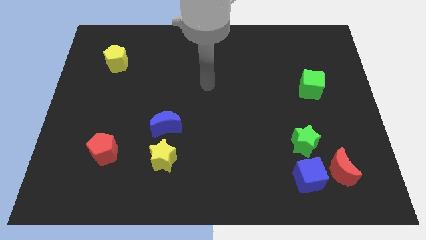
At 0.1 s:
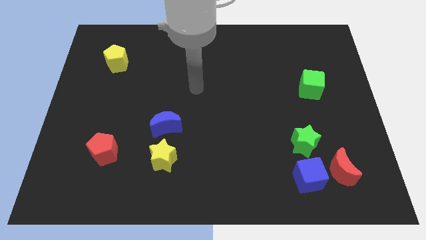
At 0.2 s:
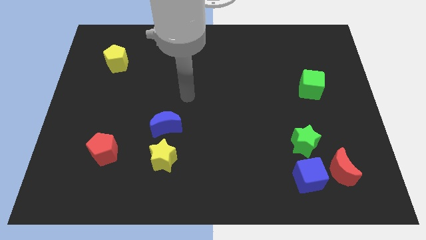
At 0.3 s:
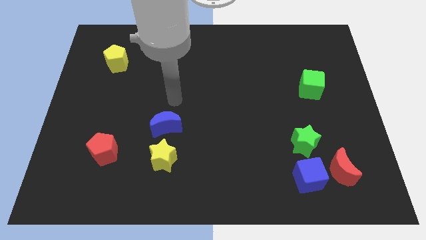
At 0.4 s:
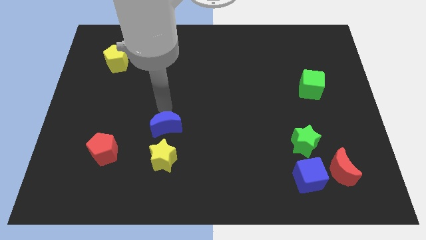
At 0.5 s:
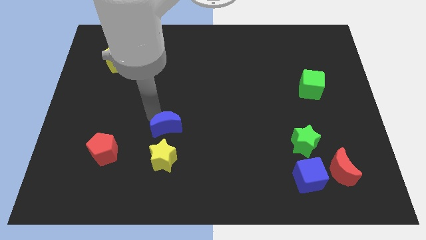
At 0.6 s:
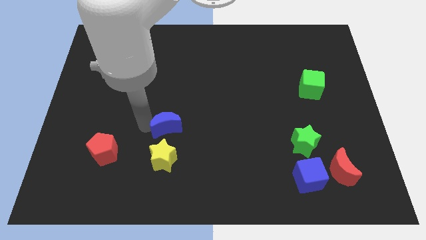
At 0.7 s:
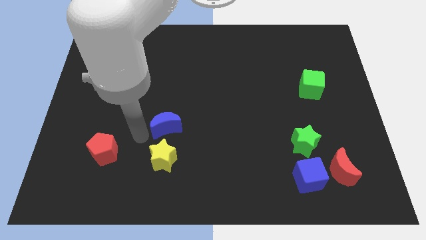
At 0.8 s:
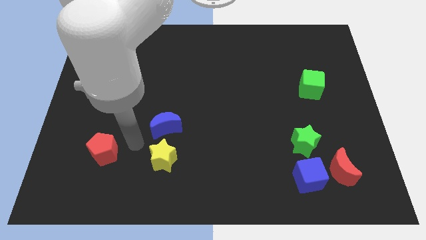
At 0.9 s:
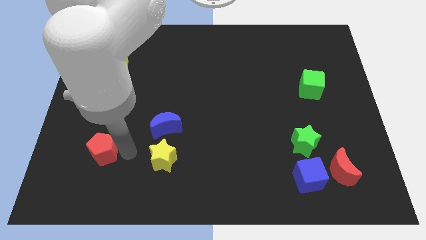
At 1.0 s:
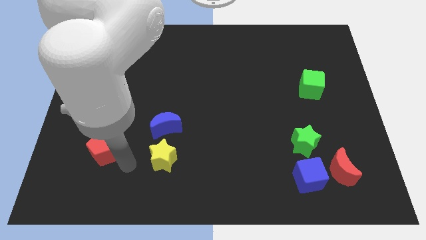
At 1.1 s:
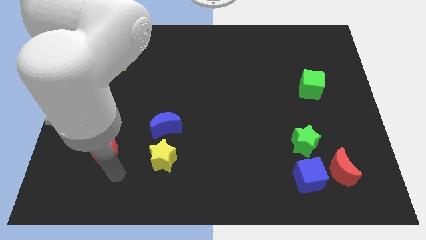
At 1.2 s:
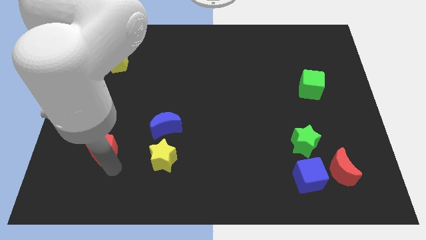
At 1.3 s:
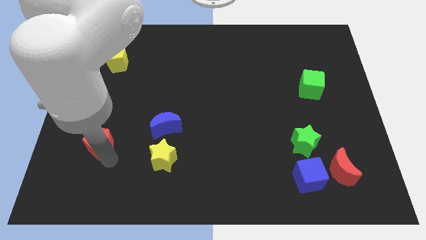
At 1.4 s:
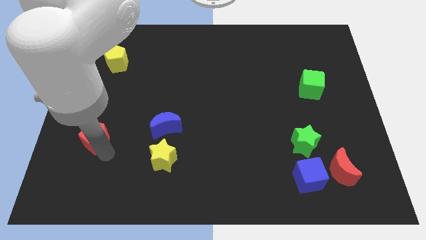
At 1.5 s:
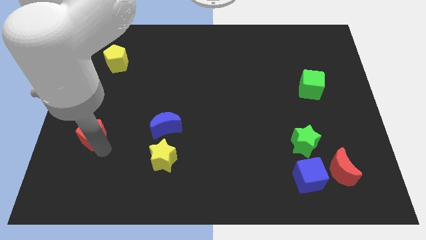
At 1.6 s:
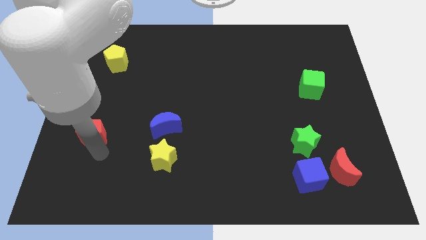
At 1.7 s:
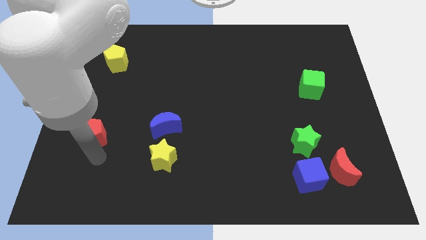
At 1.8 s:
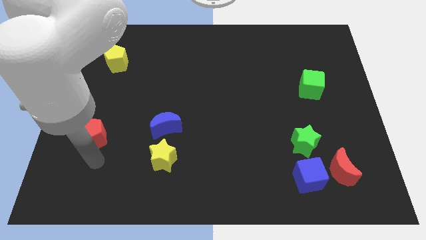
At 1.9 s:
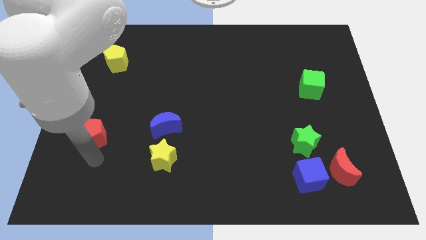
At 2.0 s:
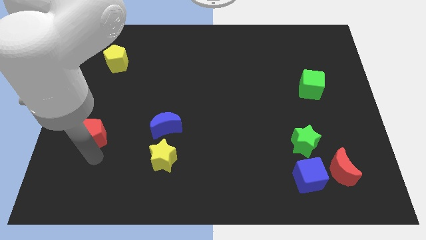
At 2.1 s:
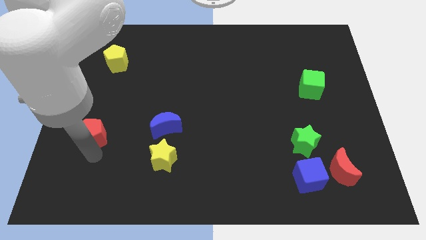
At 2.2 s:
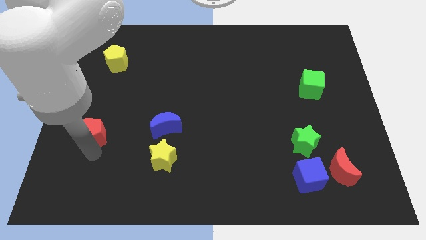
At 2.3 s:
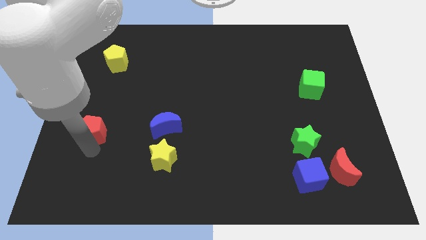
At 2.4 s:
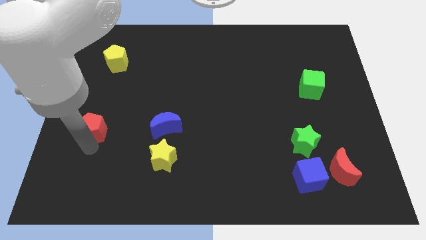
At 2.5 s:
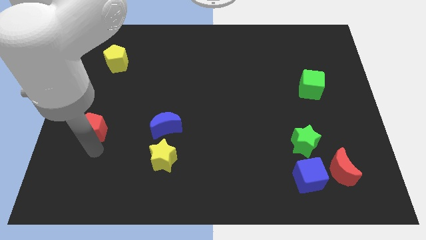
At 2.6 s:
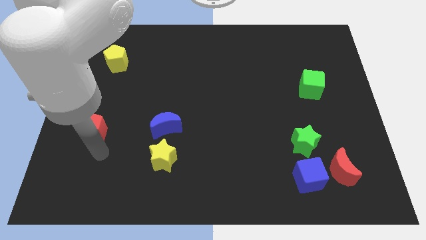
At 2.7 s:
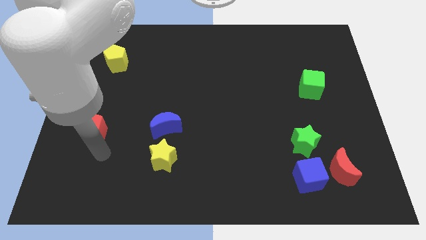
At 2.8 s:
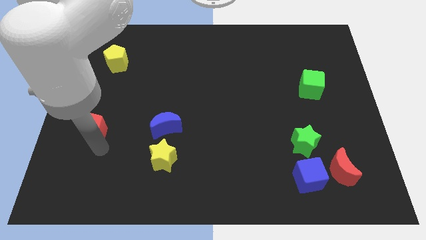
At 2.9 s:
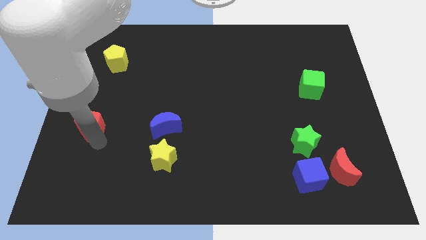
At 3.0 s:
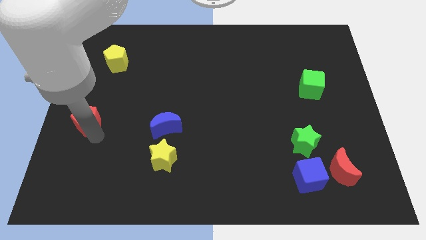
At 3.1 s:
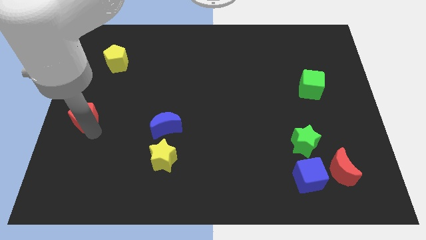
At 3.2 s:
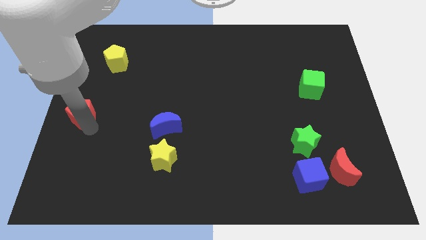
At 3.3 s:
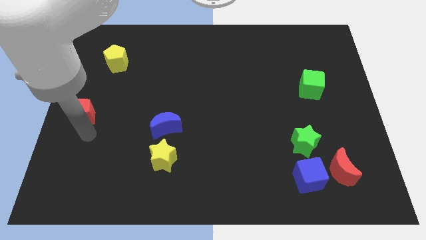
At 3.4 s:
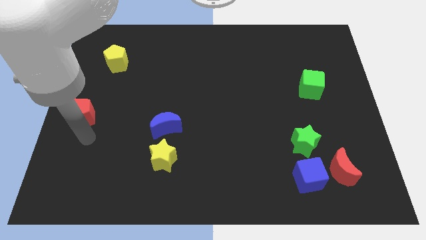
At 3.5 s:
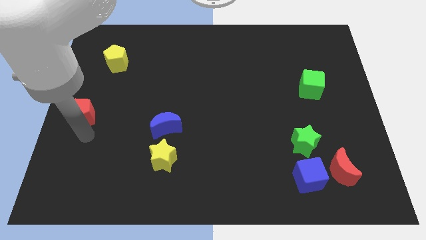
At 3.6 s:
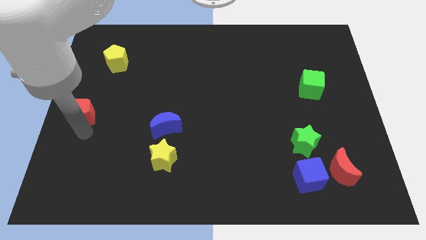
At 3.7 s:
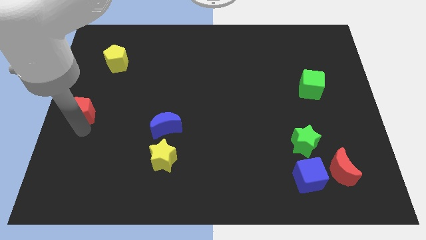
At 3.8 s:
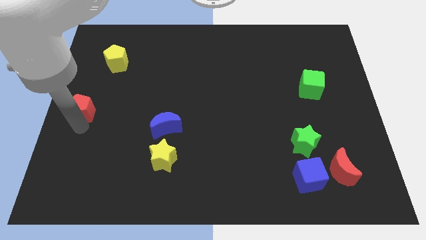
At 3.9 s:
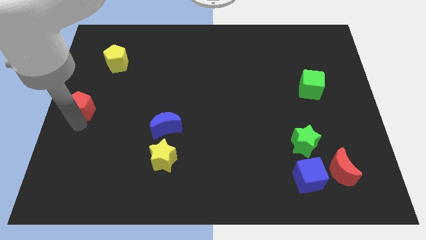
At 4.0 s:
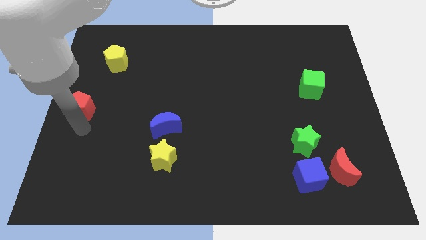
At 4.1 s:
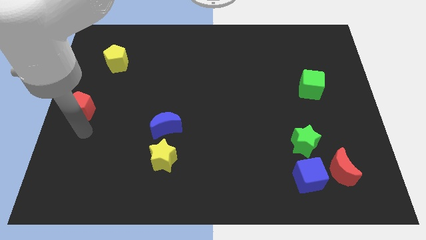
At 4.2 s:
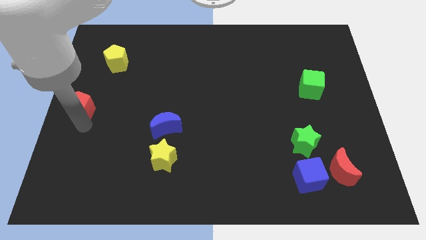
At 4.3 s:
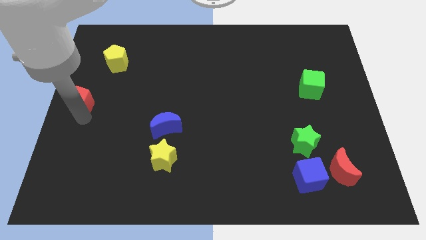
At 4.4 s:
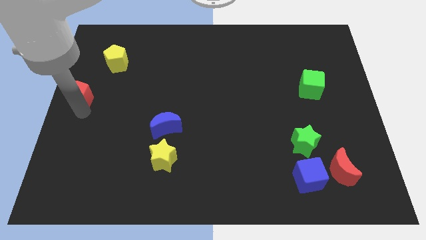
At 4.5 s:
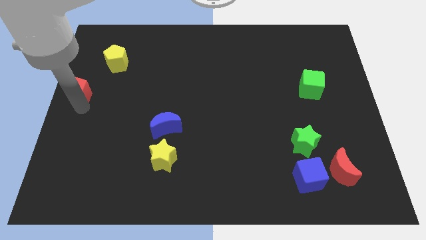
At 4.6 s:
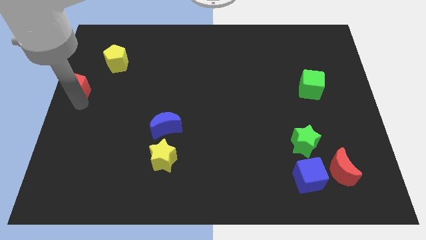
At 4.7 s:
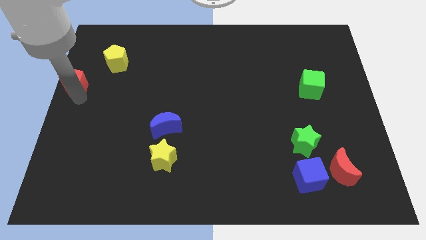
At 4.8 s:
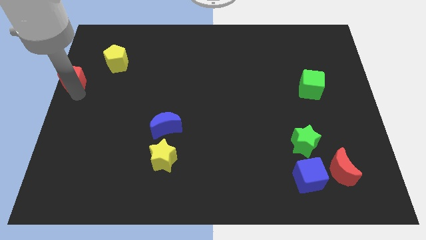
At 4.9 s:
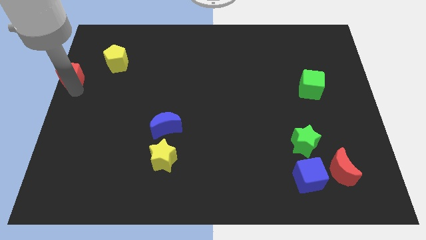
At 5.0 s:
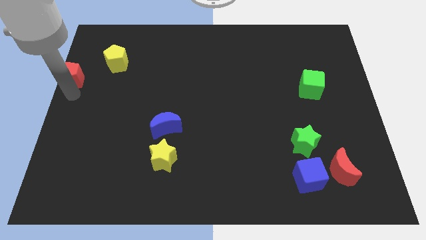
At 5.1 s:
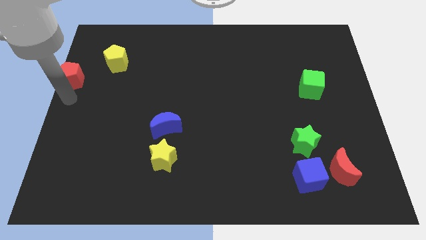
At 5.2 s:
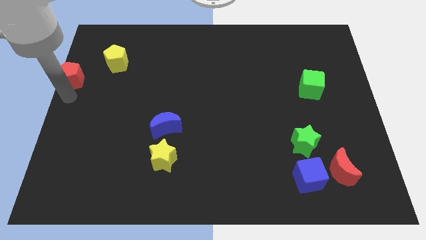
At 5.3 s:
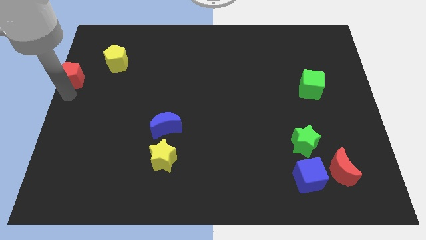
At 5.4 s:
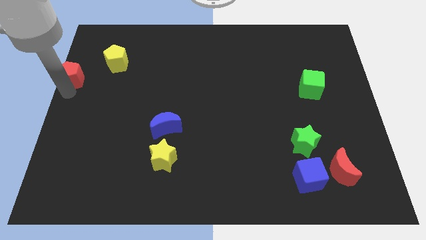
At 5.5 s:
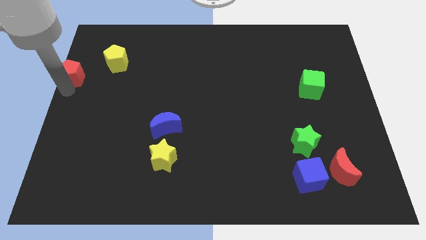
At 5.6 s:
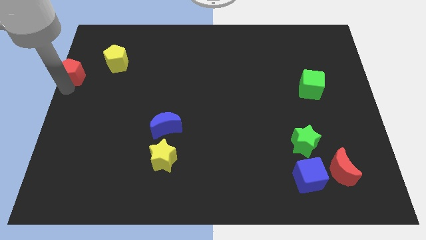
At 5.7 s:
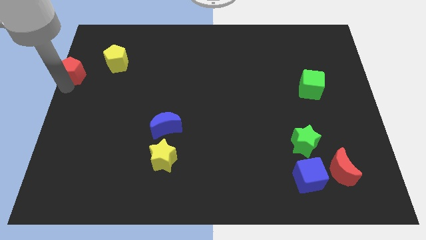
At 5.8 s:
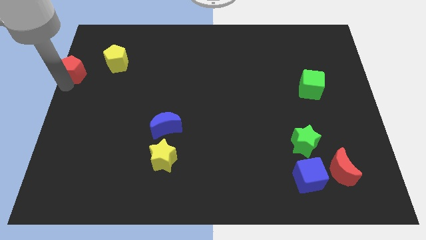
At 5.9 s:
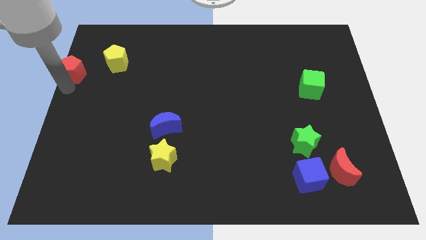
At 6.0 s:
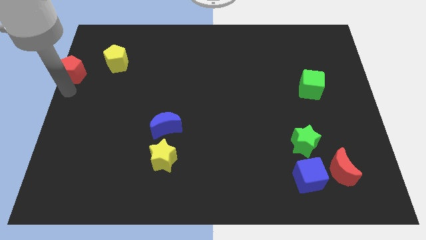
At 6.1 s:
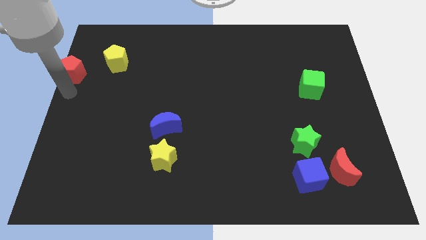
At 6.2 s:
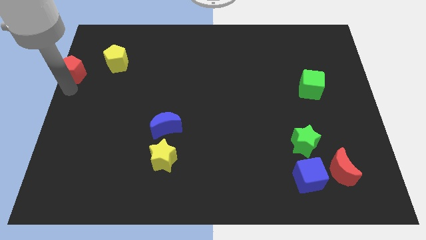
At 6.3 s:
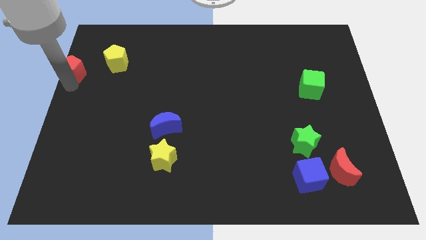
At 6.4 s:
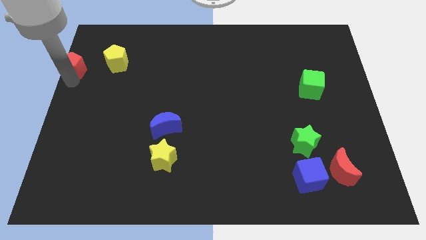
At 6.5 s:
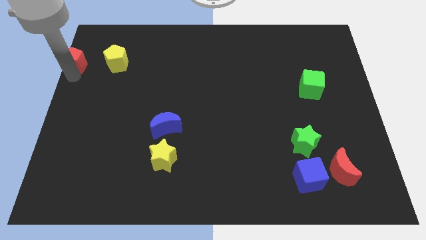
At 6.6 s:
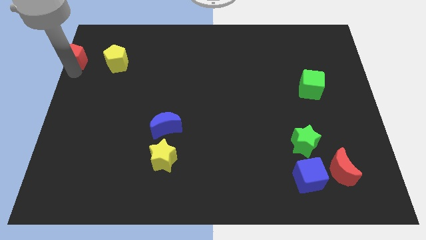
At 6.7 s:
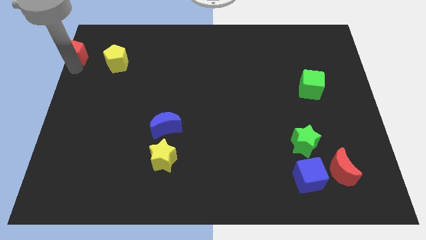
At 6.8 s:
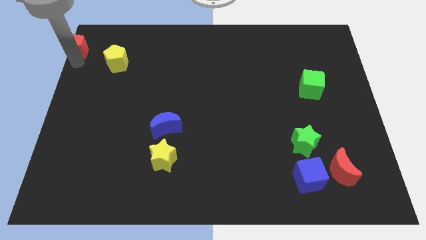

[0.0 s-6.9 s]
move the red pentagon to the upper left corner

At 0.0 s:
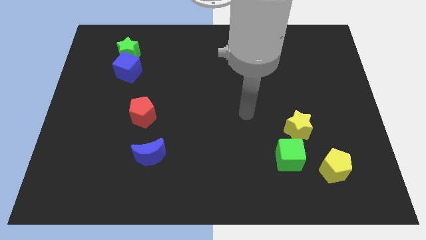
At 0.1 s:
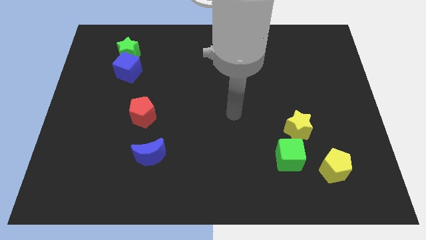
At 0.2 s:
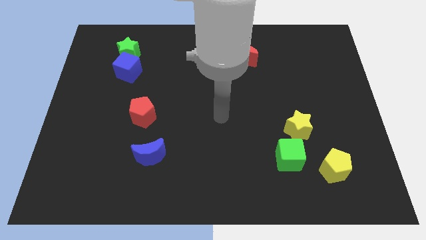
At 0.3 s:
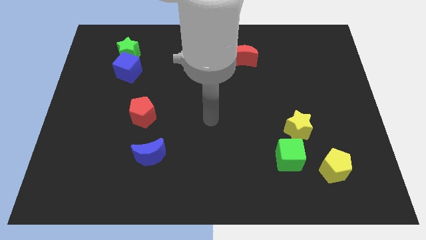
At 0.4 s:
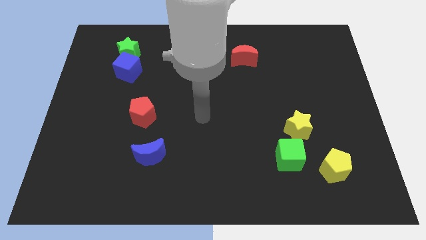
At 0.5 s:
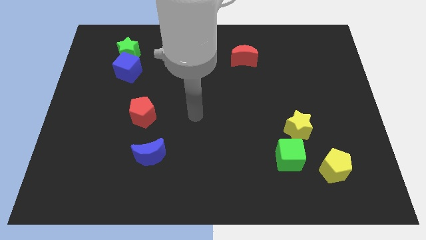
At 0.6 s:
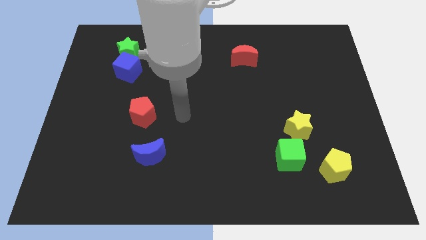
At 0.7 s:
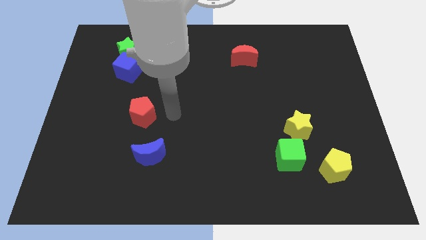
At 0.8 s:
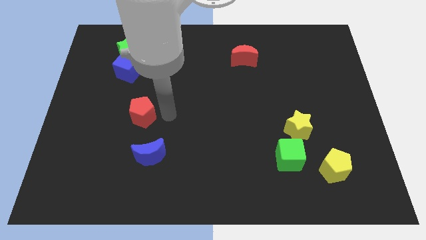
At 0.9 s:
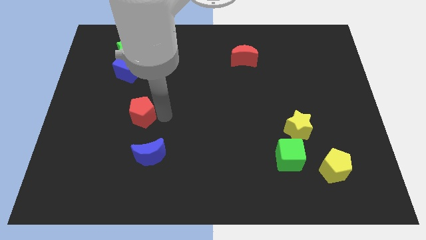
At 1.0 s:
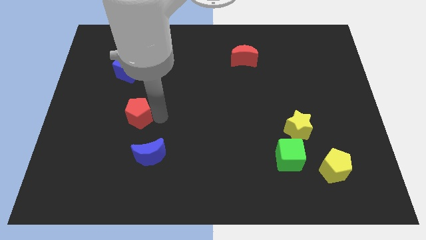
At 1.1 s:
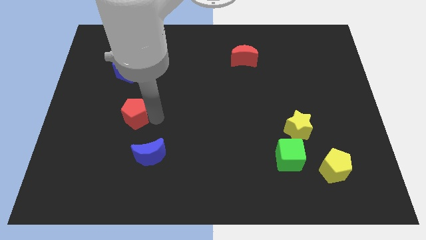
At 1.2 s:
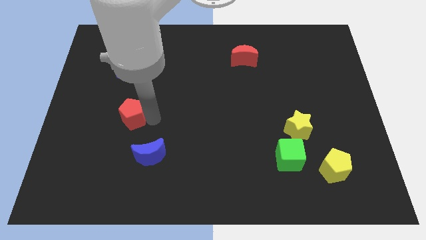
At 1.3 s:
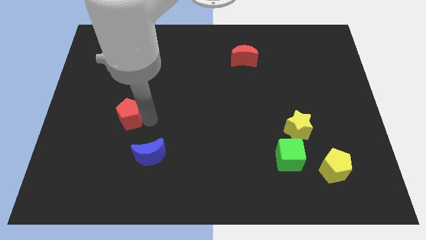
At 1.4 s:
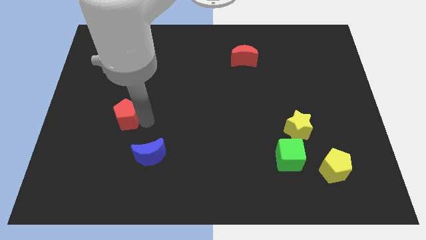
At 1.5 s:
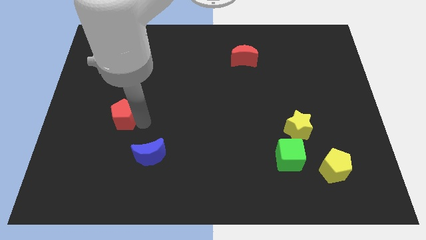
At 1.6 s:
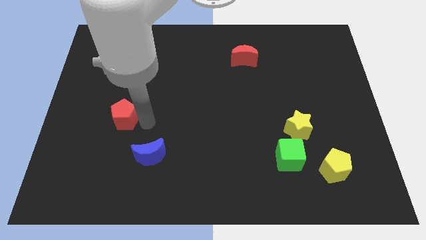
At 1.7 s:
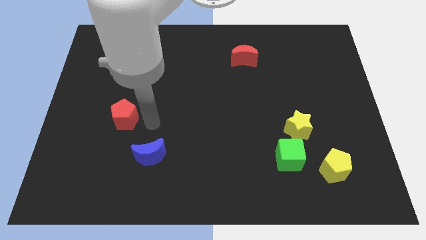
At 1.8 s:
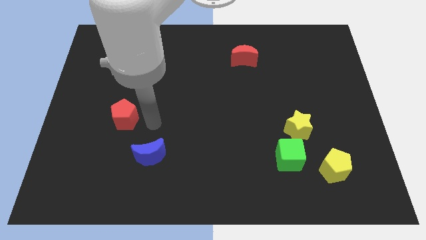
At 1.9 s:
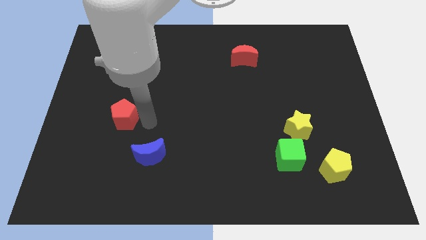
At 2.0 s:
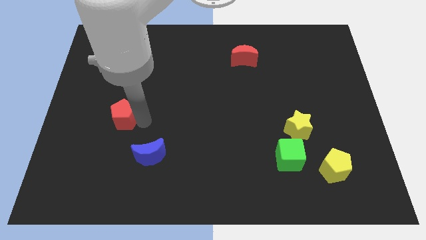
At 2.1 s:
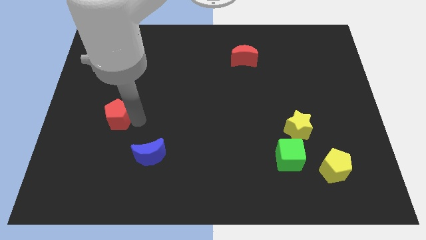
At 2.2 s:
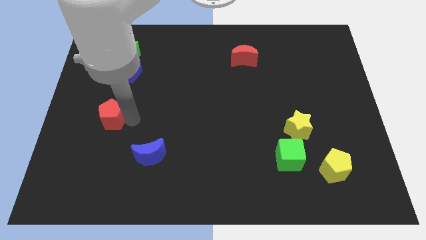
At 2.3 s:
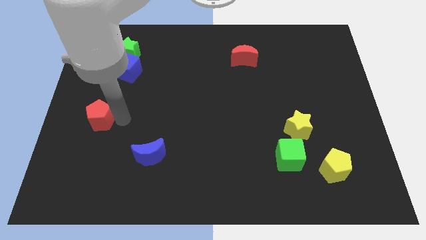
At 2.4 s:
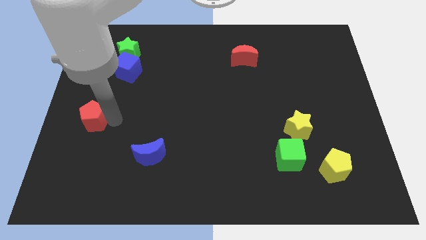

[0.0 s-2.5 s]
push the red pentagon to the left side of the board
